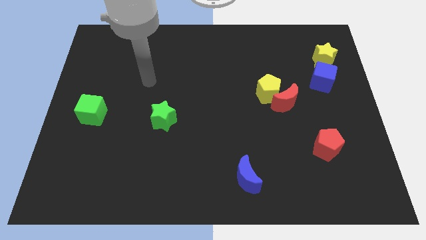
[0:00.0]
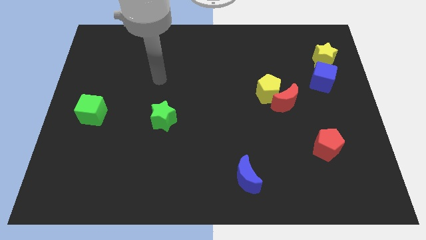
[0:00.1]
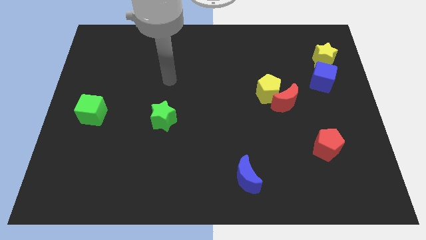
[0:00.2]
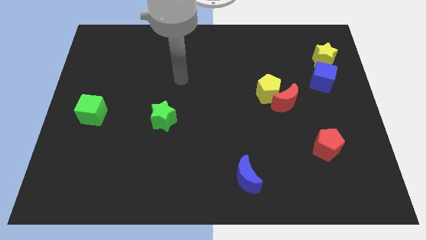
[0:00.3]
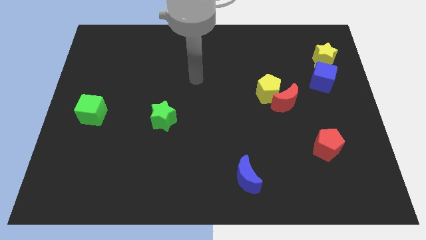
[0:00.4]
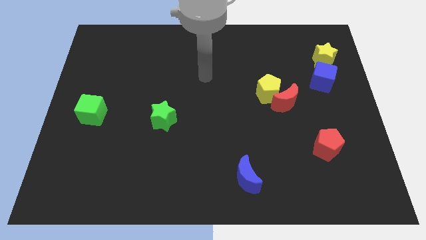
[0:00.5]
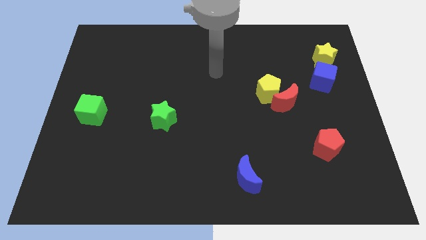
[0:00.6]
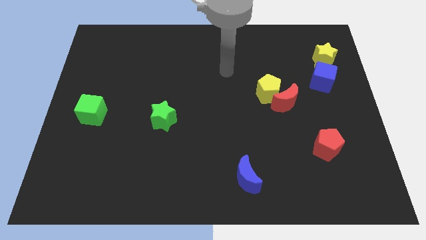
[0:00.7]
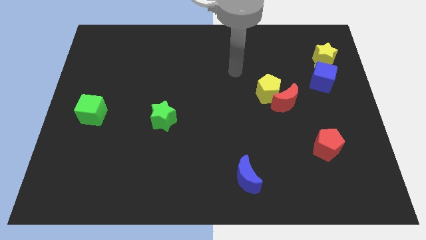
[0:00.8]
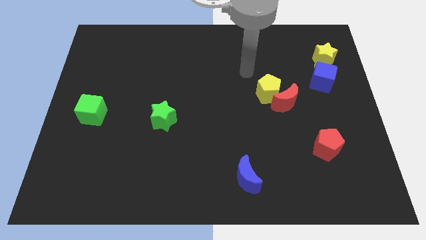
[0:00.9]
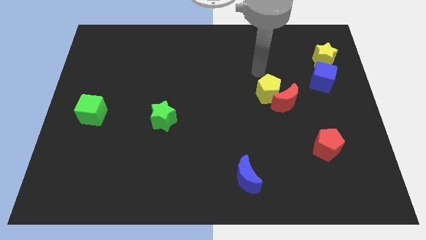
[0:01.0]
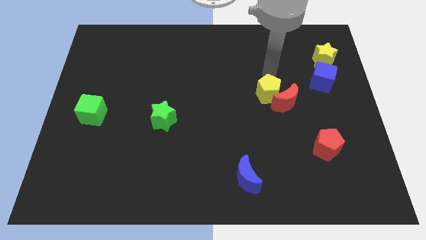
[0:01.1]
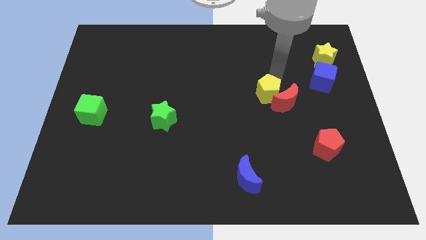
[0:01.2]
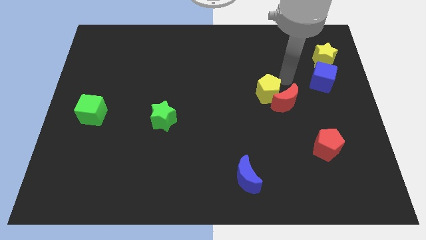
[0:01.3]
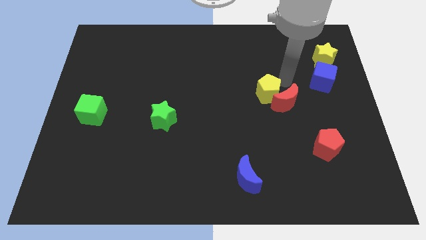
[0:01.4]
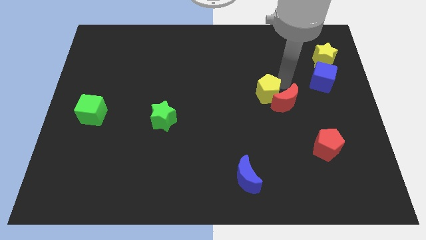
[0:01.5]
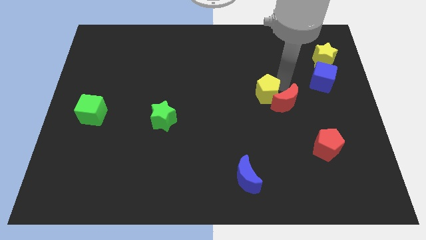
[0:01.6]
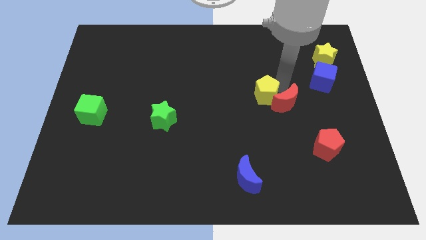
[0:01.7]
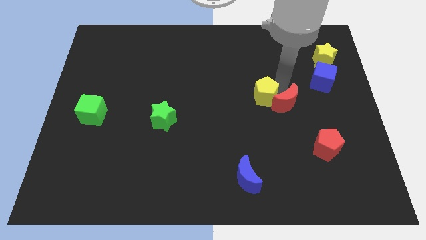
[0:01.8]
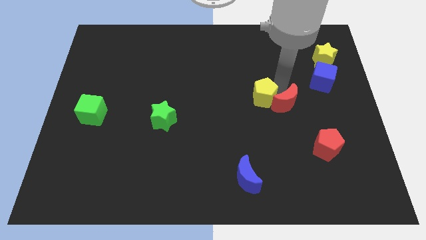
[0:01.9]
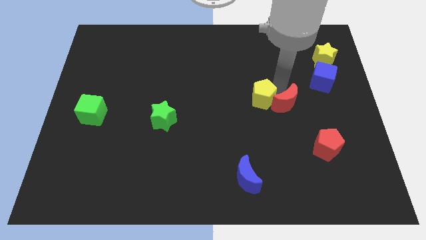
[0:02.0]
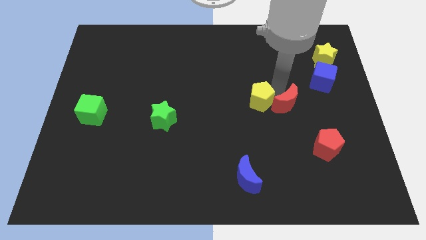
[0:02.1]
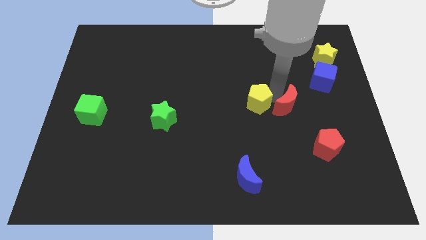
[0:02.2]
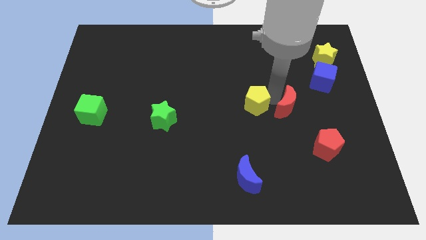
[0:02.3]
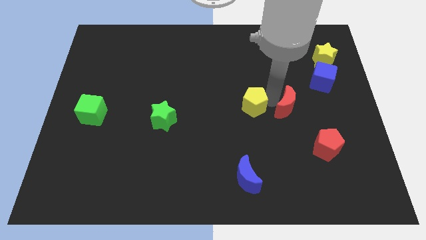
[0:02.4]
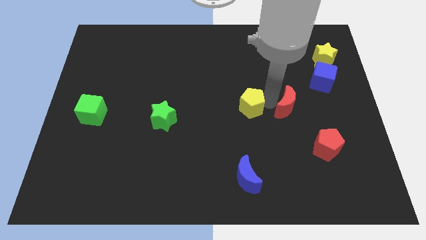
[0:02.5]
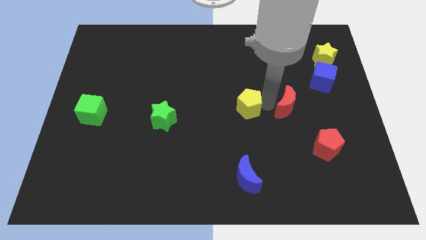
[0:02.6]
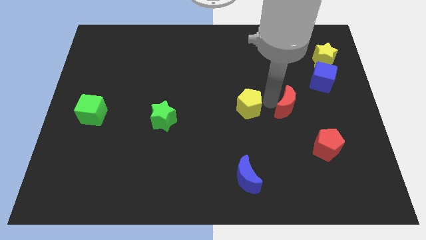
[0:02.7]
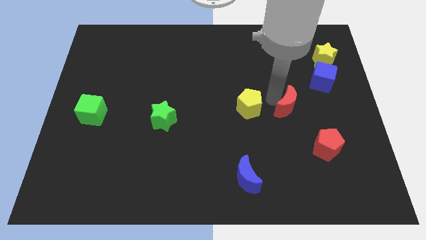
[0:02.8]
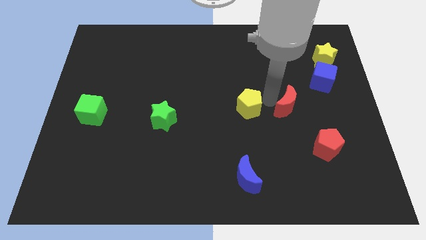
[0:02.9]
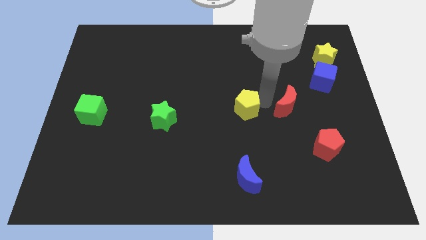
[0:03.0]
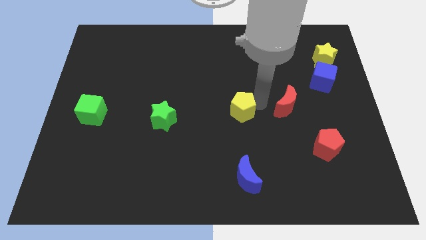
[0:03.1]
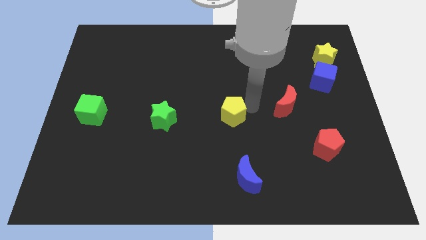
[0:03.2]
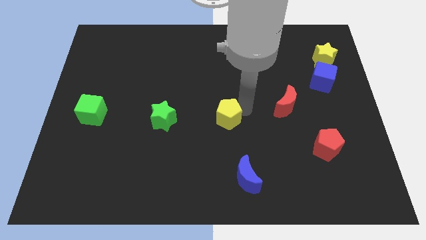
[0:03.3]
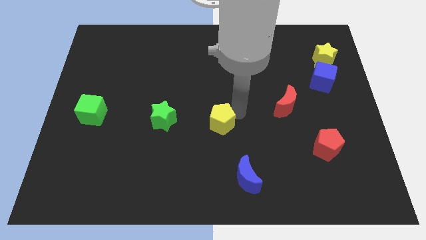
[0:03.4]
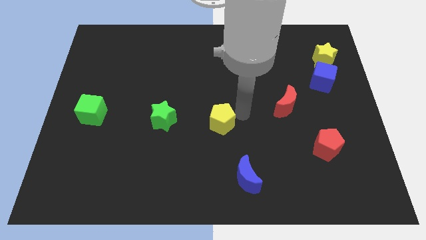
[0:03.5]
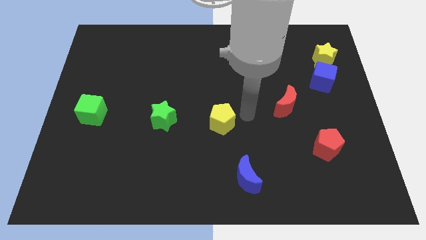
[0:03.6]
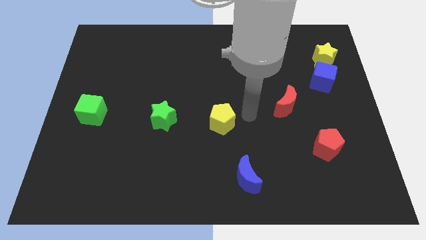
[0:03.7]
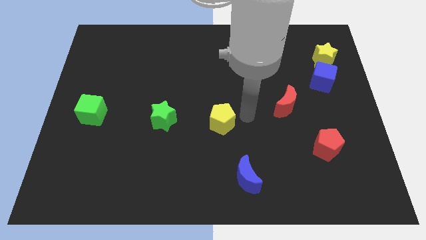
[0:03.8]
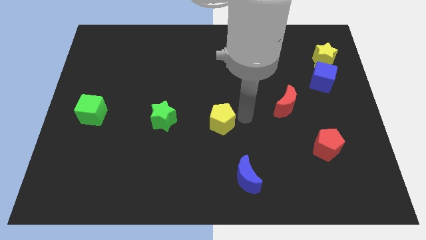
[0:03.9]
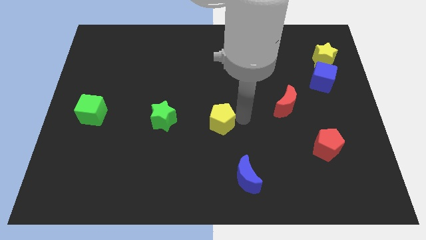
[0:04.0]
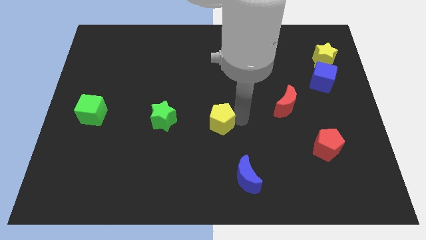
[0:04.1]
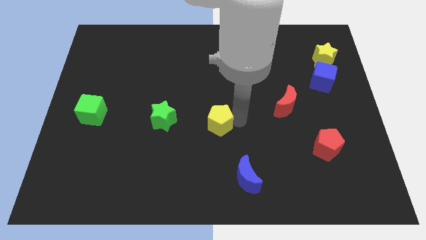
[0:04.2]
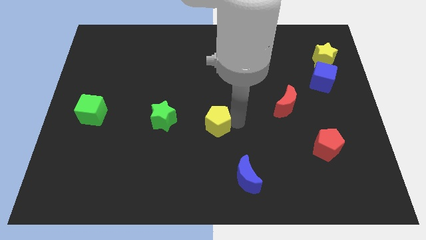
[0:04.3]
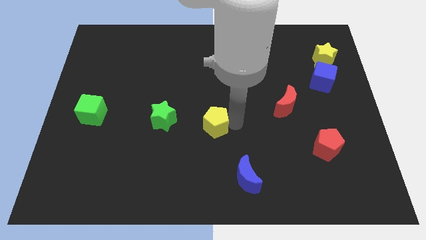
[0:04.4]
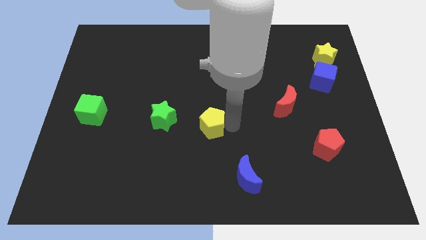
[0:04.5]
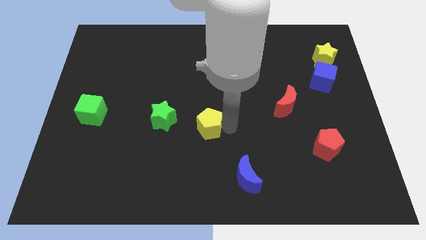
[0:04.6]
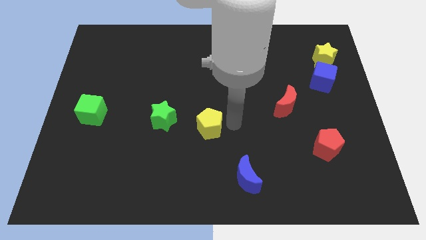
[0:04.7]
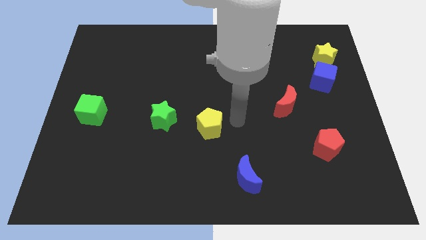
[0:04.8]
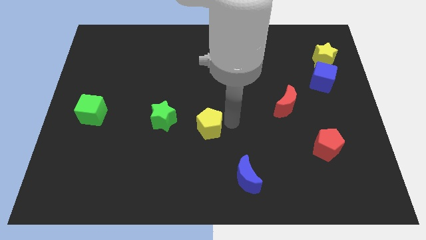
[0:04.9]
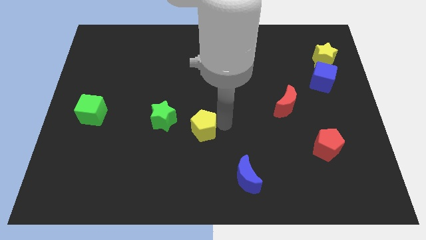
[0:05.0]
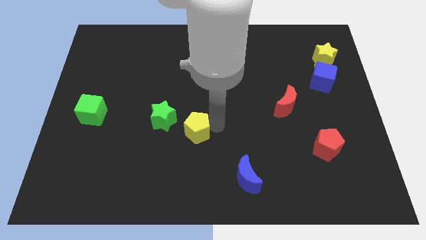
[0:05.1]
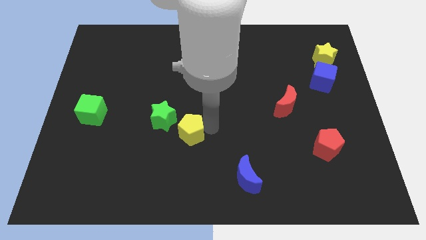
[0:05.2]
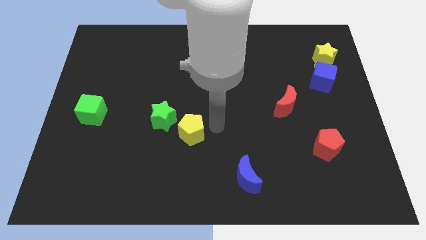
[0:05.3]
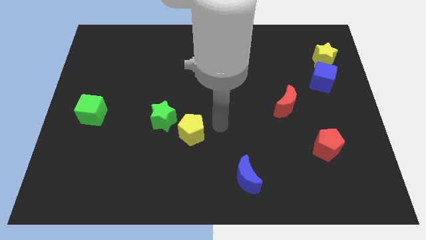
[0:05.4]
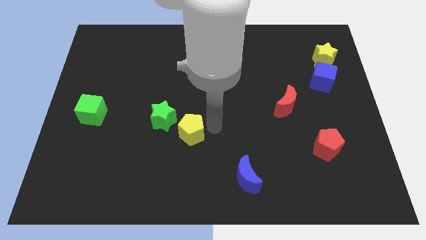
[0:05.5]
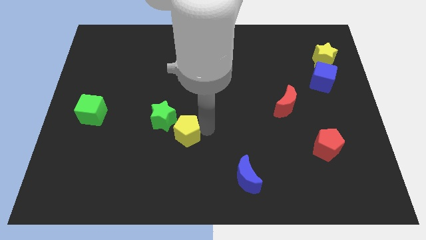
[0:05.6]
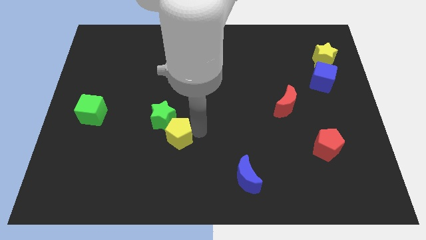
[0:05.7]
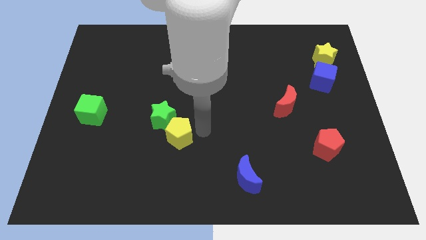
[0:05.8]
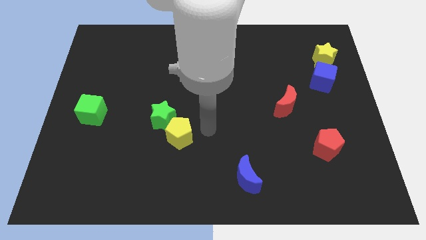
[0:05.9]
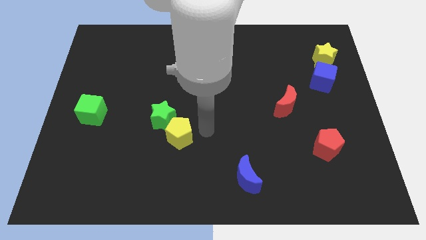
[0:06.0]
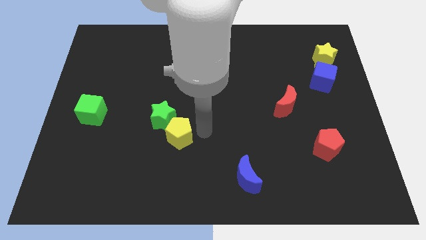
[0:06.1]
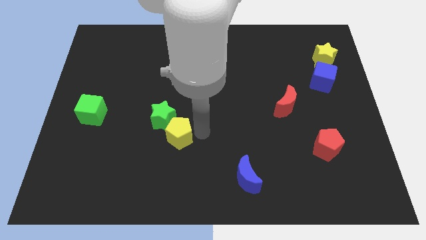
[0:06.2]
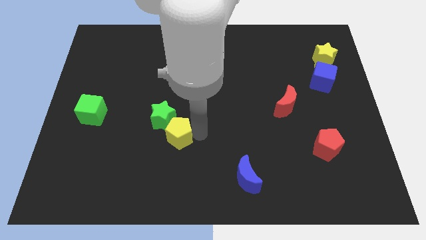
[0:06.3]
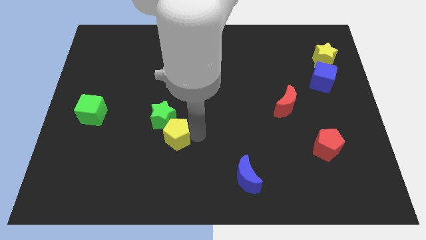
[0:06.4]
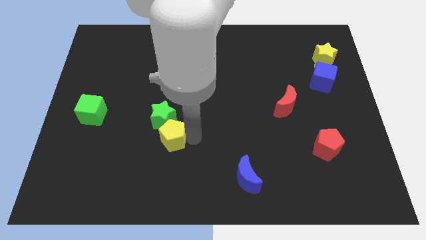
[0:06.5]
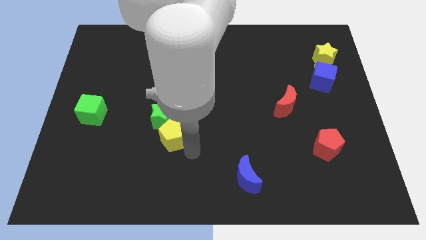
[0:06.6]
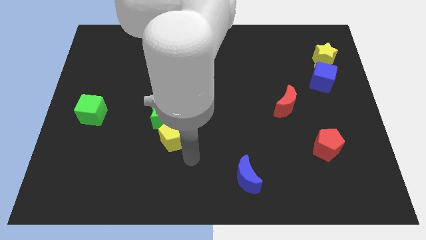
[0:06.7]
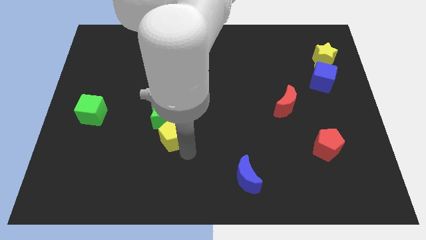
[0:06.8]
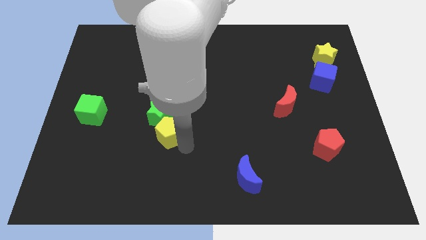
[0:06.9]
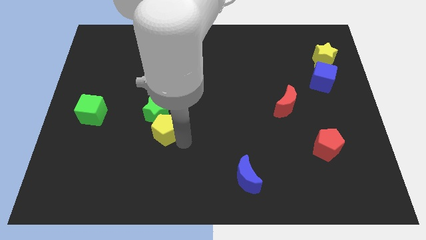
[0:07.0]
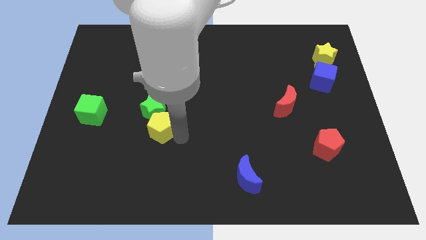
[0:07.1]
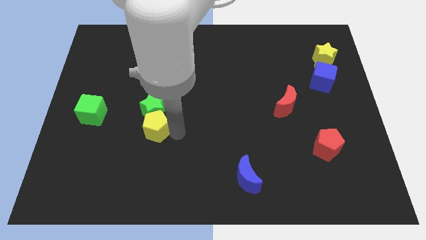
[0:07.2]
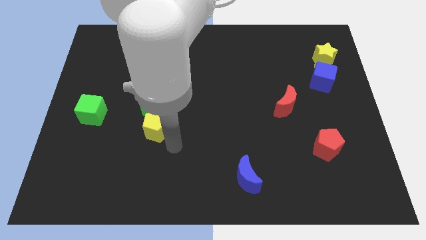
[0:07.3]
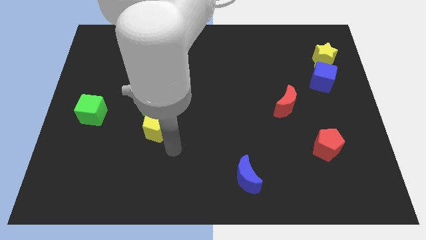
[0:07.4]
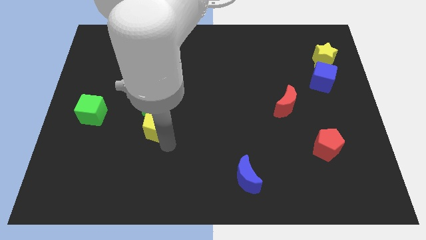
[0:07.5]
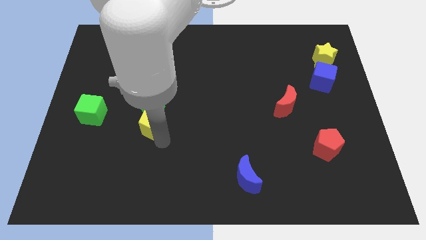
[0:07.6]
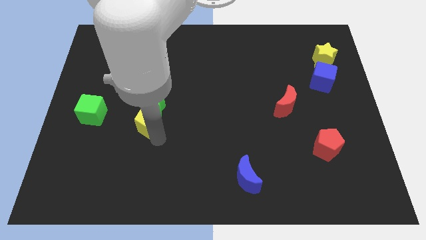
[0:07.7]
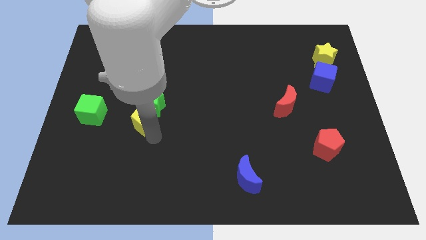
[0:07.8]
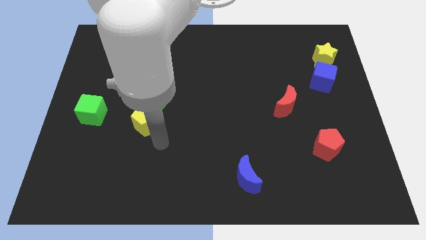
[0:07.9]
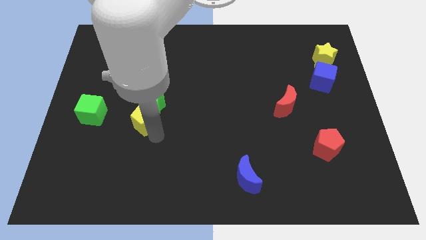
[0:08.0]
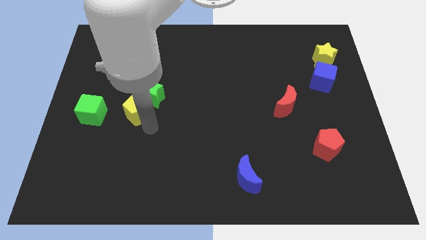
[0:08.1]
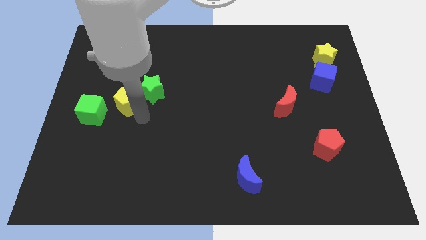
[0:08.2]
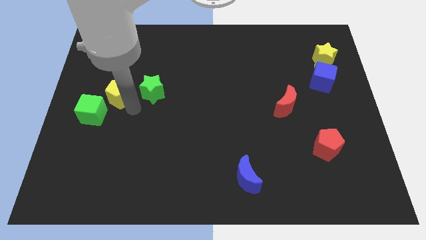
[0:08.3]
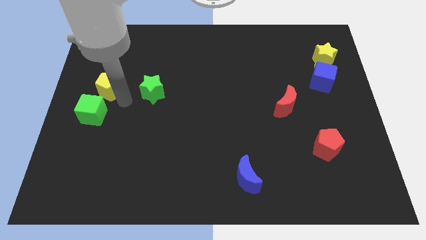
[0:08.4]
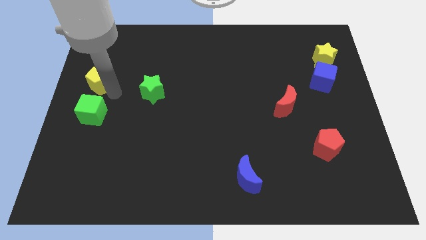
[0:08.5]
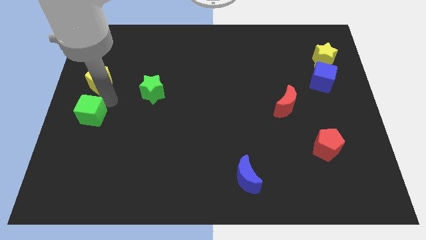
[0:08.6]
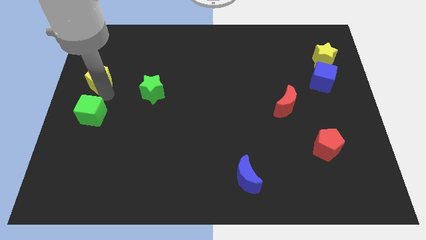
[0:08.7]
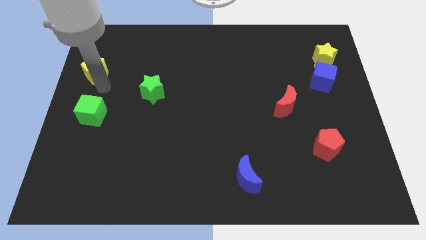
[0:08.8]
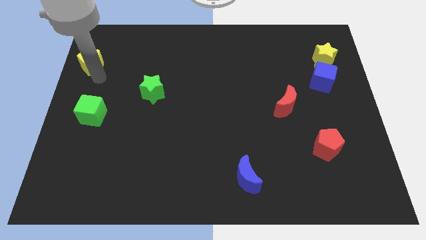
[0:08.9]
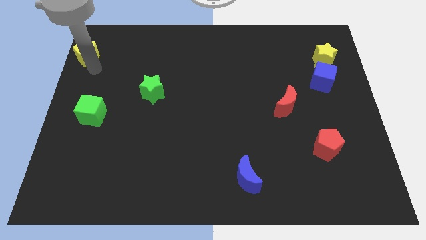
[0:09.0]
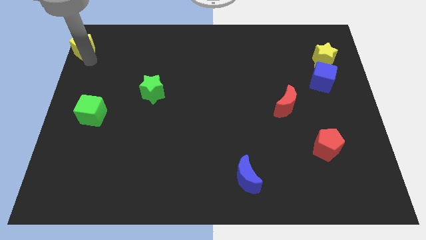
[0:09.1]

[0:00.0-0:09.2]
move the yellow pentagon to the top left corner
